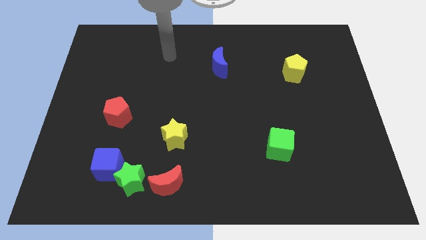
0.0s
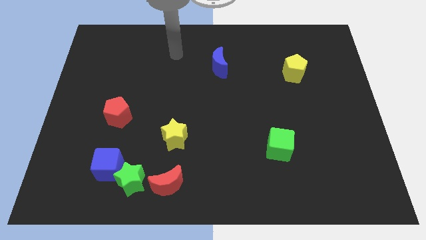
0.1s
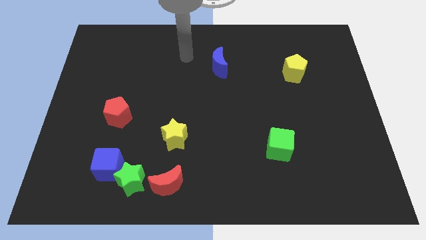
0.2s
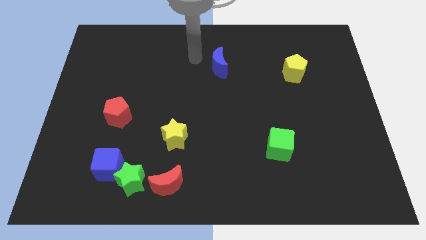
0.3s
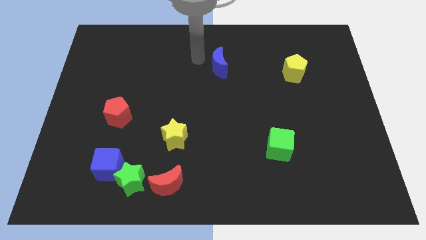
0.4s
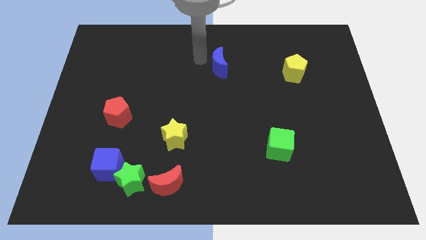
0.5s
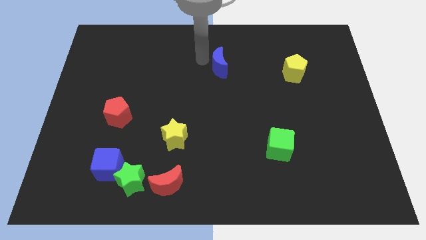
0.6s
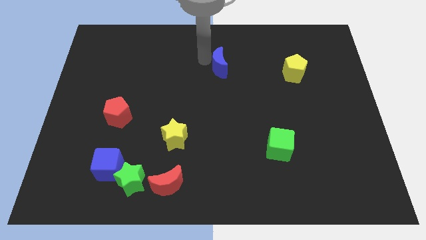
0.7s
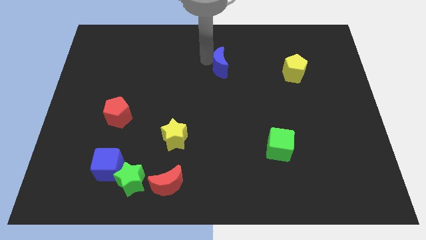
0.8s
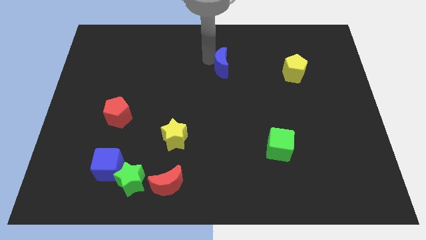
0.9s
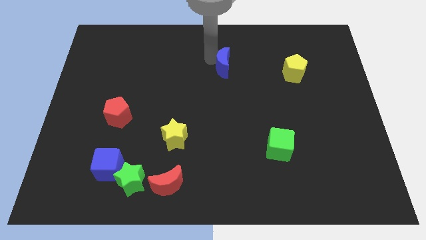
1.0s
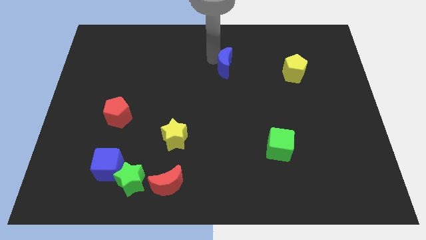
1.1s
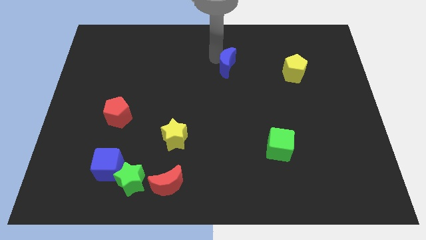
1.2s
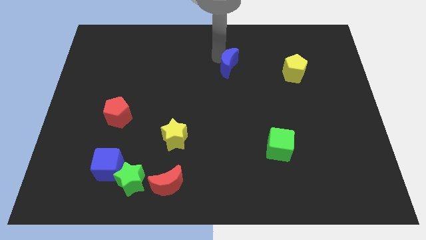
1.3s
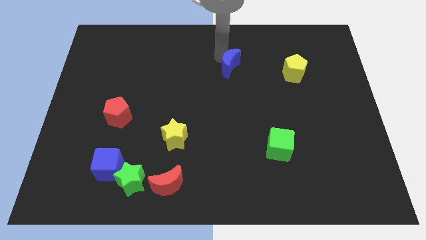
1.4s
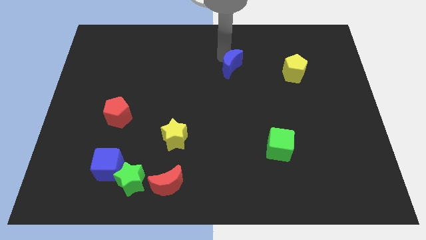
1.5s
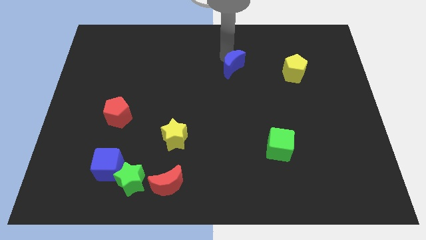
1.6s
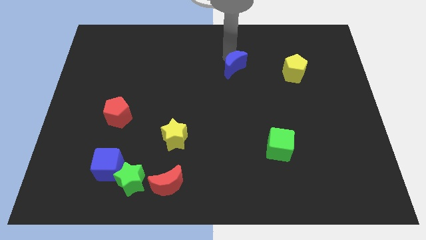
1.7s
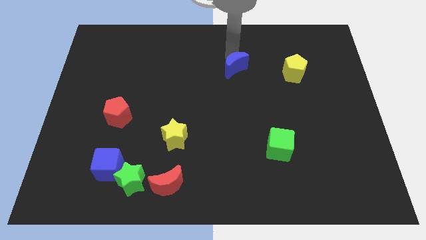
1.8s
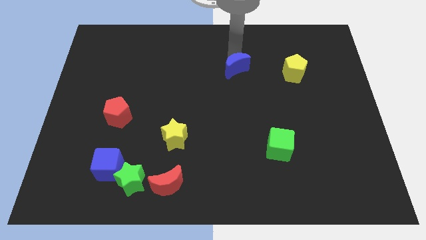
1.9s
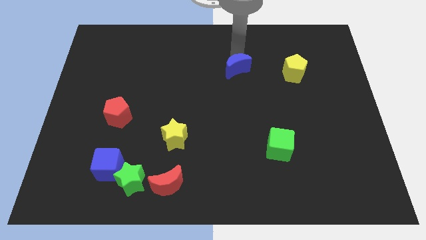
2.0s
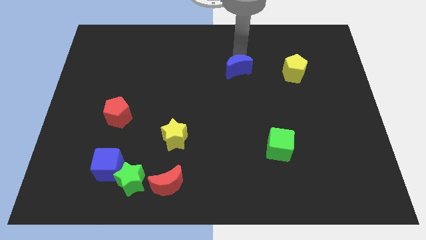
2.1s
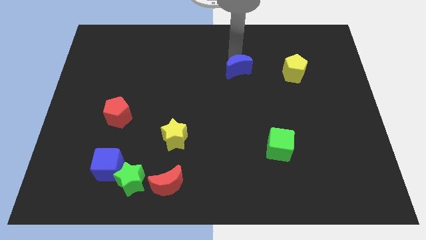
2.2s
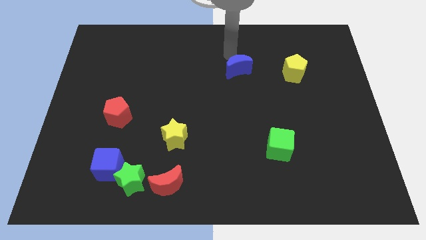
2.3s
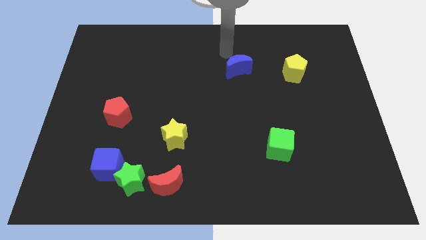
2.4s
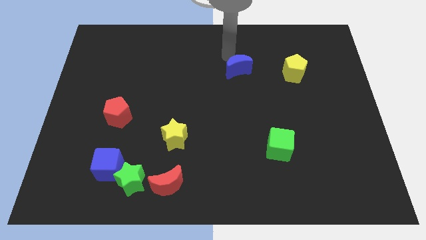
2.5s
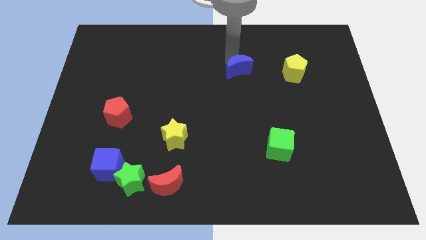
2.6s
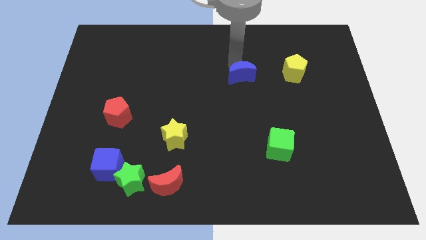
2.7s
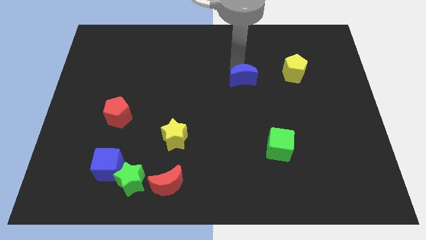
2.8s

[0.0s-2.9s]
slightly push the blue moon down and then right

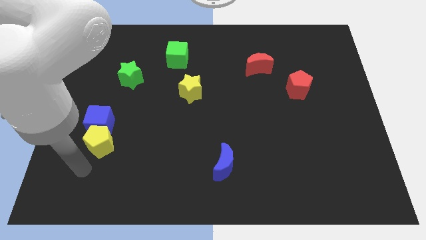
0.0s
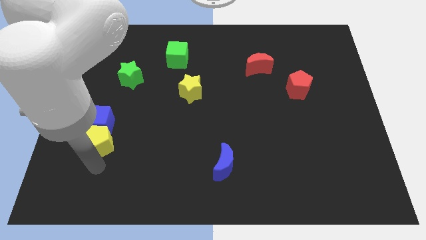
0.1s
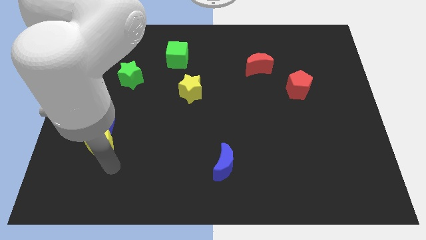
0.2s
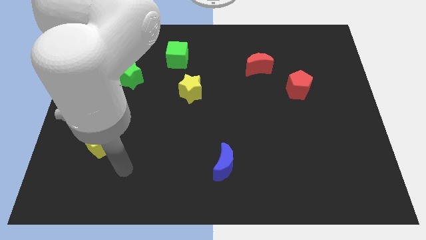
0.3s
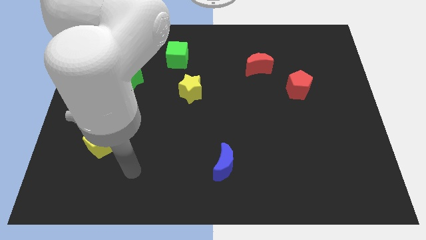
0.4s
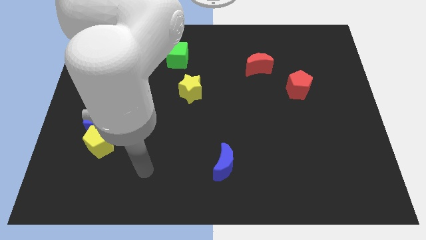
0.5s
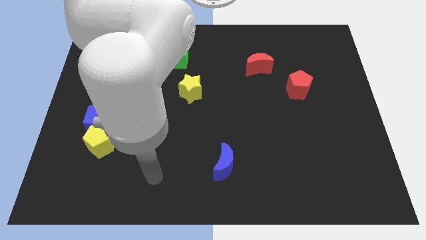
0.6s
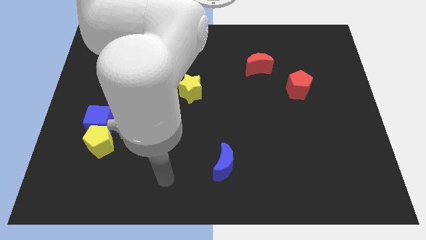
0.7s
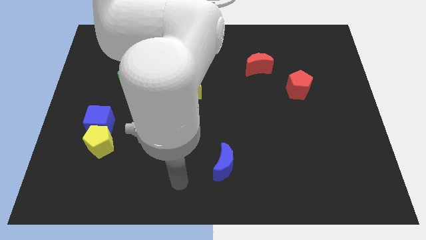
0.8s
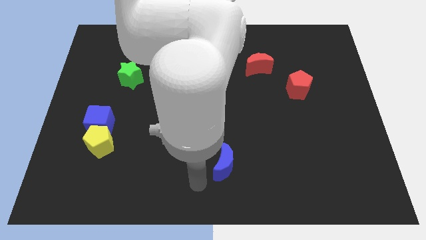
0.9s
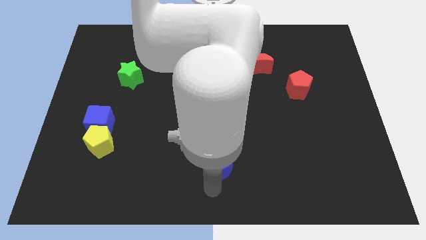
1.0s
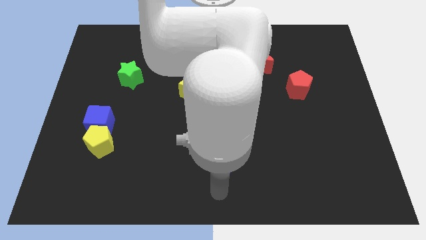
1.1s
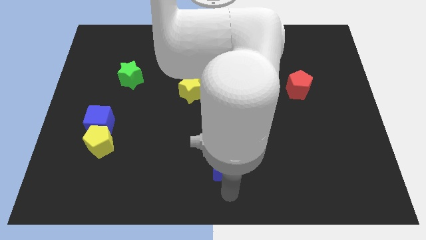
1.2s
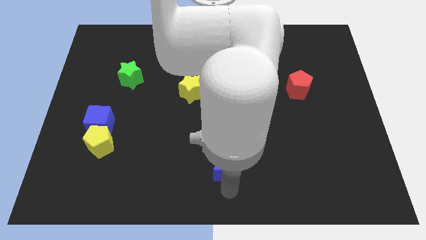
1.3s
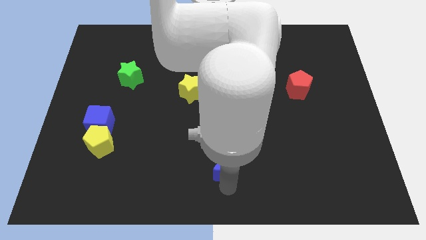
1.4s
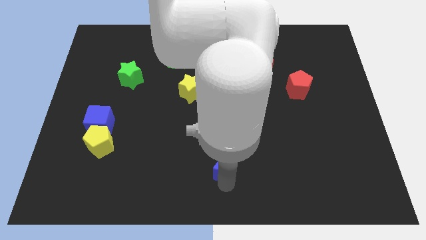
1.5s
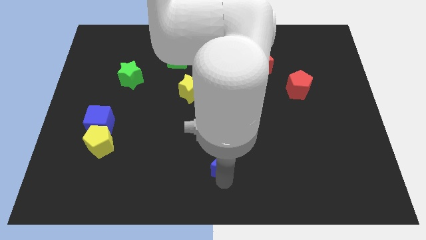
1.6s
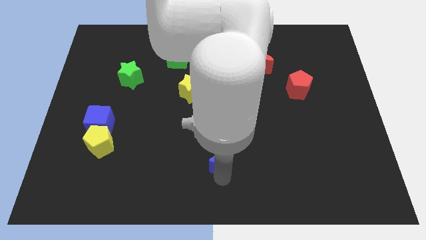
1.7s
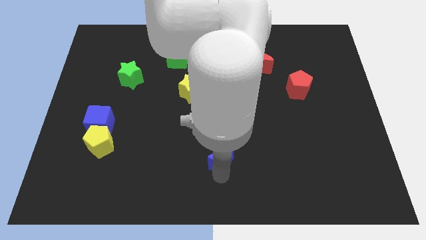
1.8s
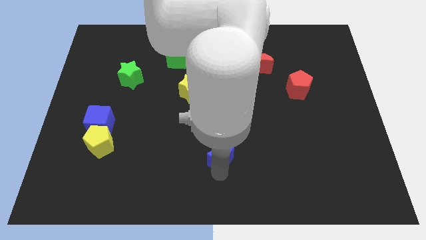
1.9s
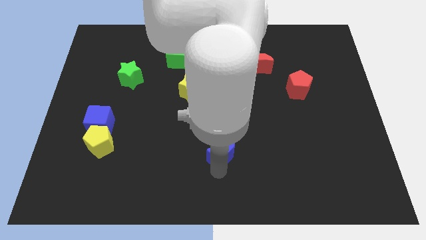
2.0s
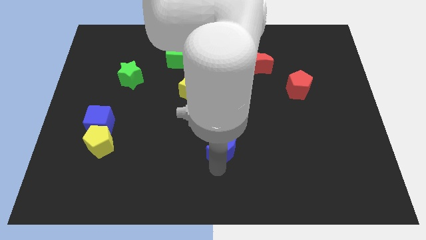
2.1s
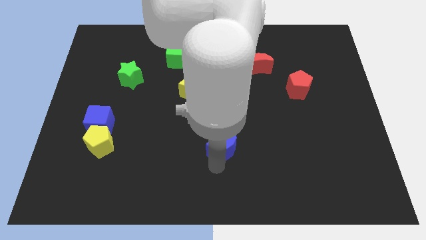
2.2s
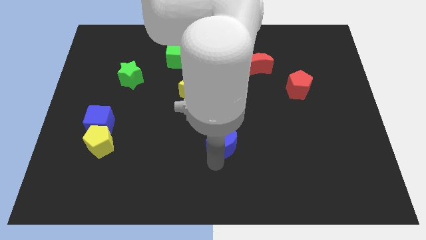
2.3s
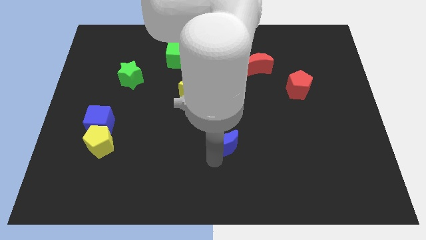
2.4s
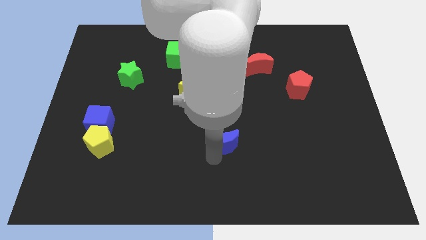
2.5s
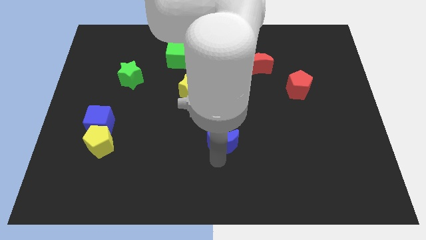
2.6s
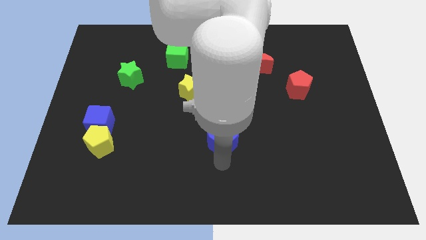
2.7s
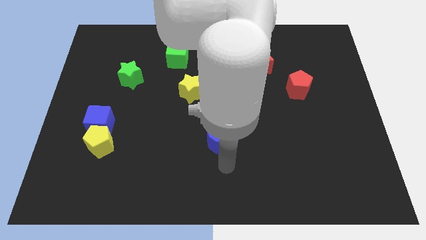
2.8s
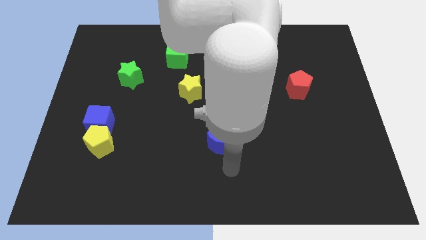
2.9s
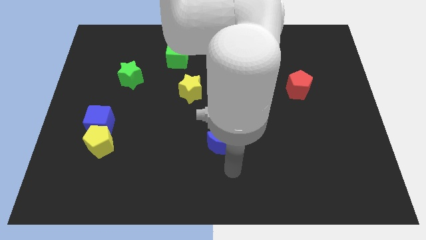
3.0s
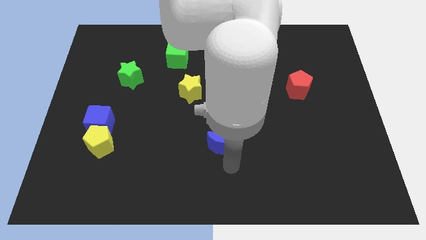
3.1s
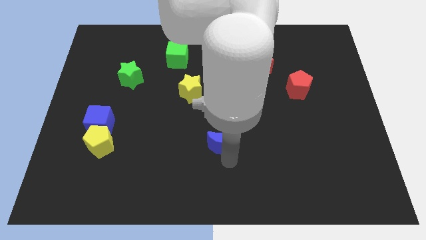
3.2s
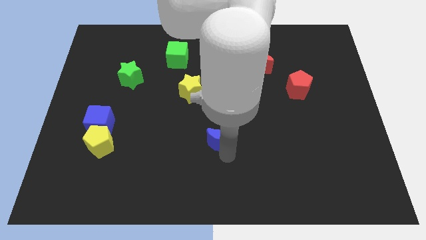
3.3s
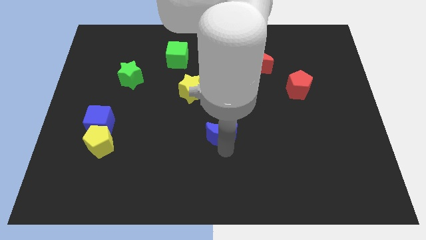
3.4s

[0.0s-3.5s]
push the blue moon slightly upwards

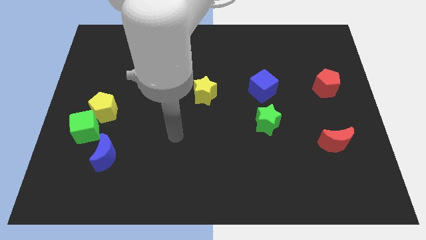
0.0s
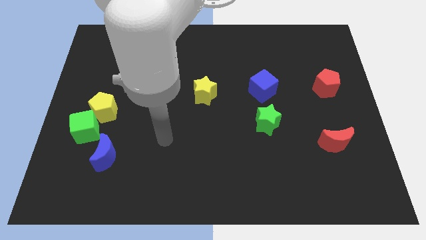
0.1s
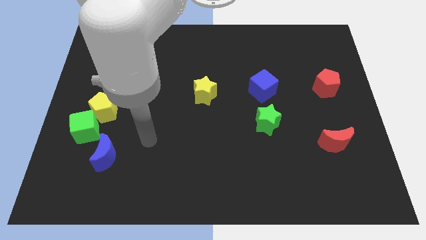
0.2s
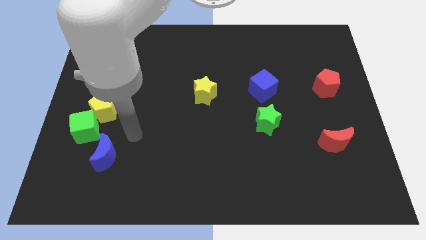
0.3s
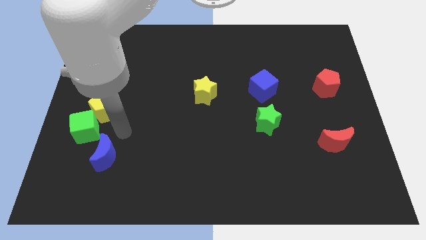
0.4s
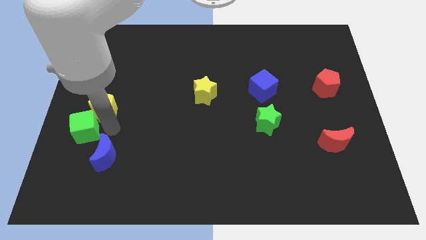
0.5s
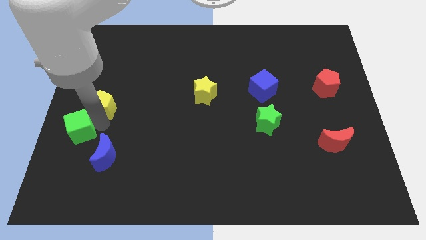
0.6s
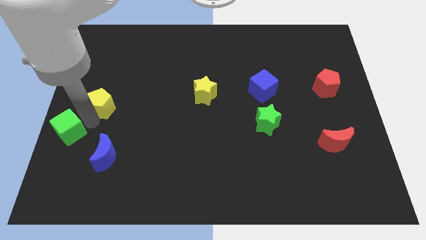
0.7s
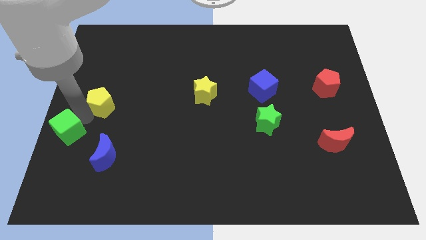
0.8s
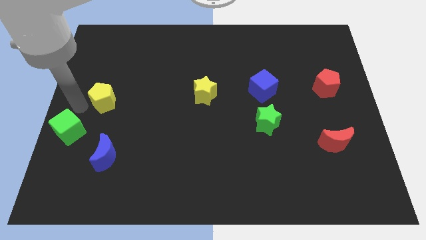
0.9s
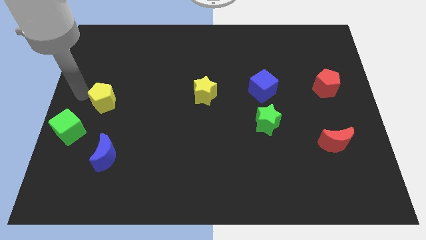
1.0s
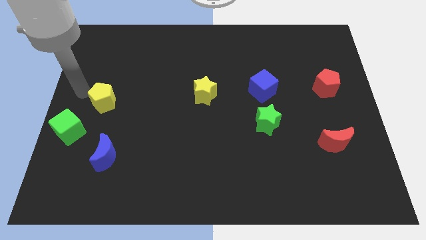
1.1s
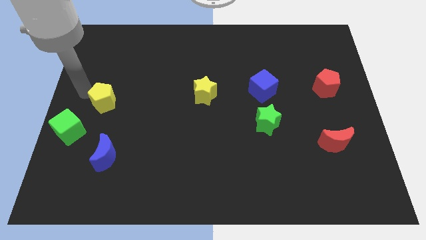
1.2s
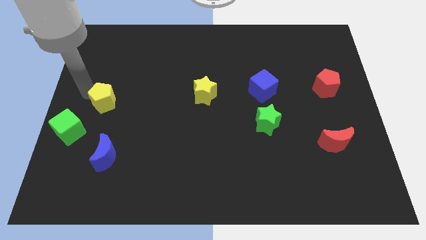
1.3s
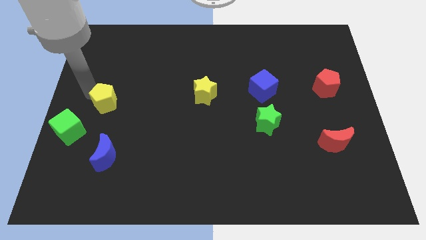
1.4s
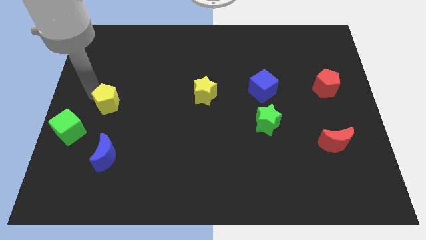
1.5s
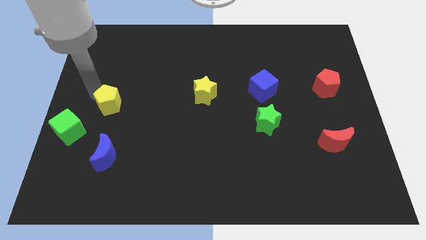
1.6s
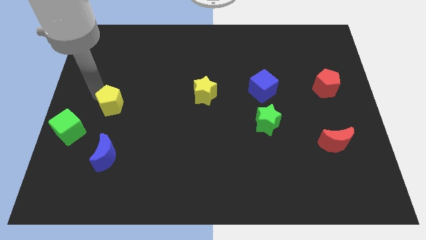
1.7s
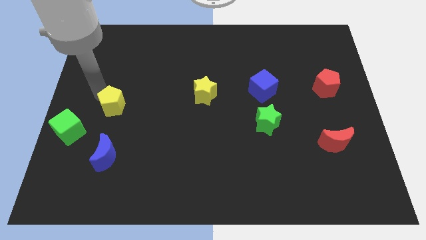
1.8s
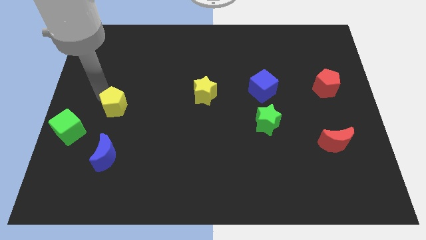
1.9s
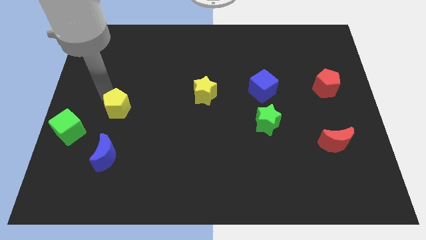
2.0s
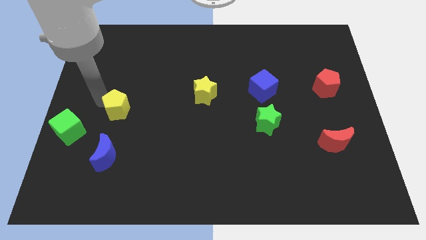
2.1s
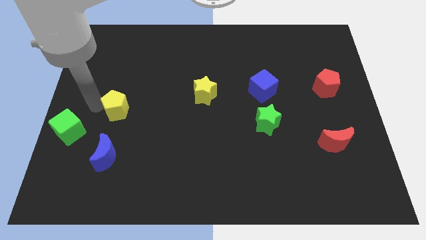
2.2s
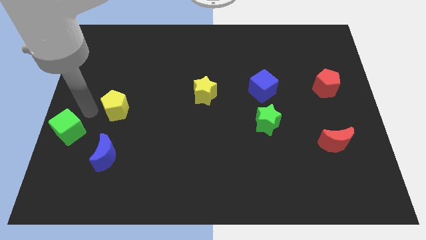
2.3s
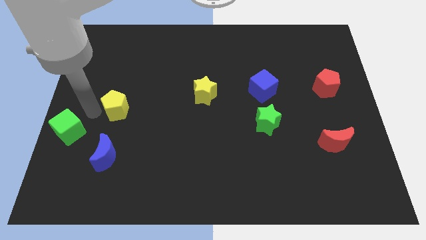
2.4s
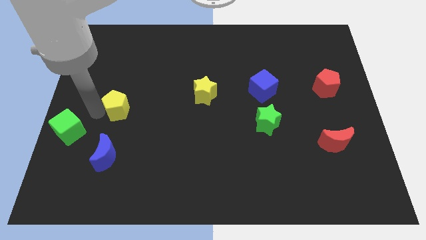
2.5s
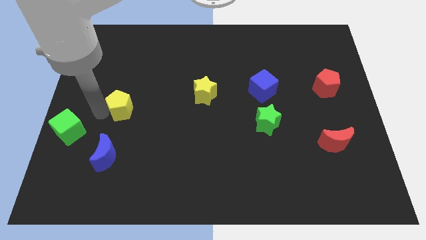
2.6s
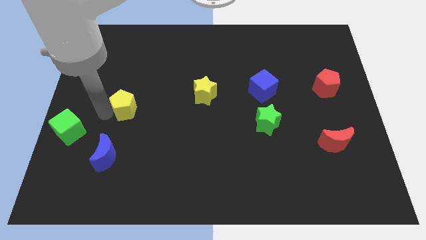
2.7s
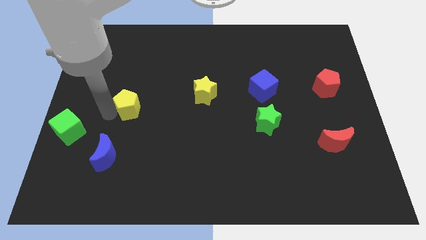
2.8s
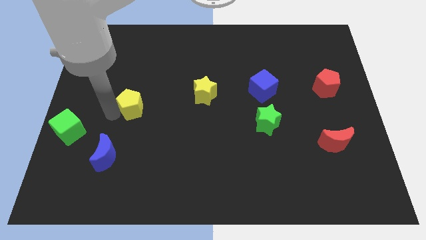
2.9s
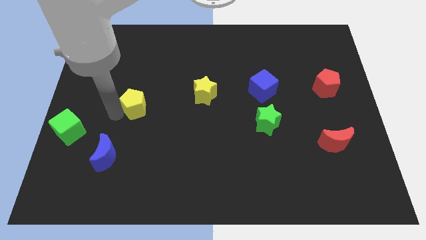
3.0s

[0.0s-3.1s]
slightly slide the yellow pentagon right
